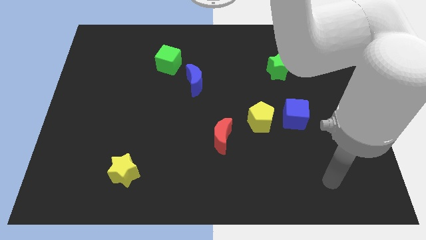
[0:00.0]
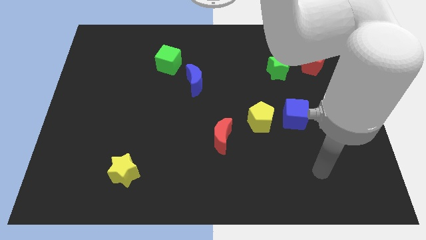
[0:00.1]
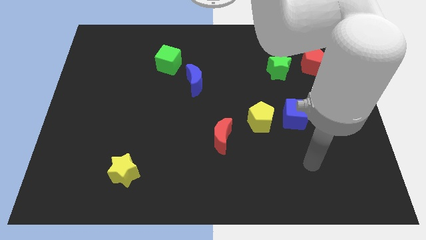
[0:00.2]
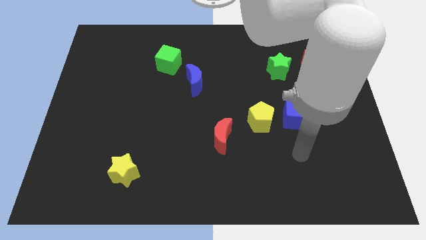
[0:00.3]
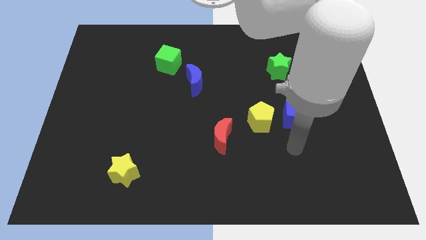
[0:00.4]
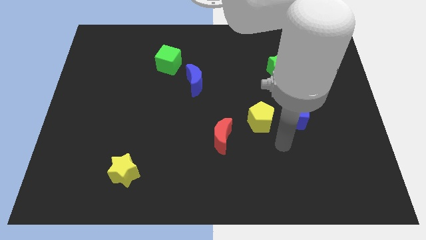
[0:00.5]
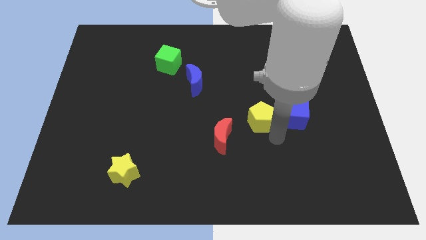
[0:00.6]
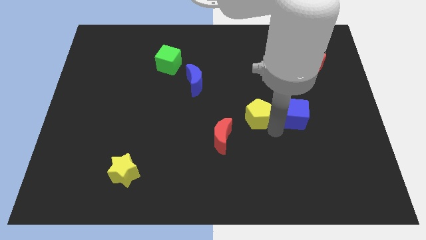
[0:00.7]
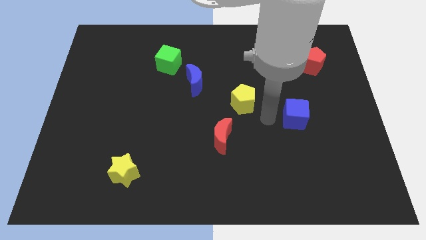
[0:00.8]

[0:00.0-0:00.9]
separate the blue cube from the yellow pentagon

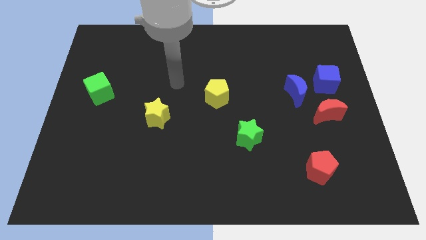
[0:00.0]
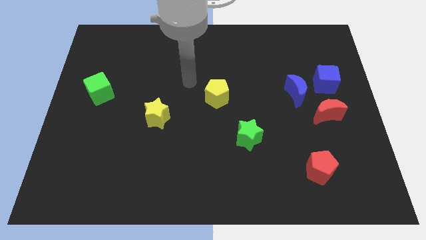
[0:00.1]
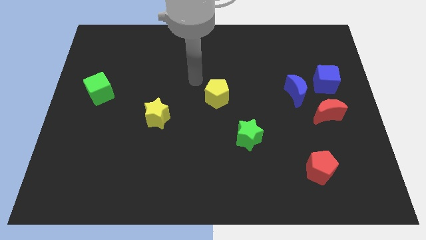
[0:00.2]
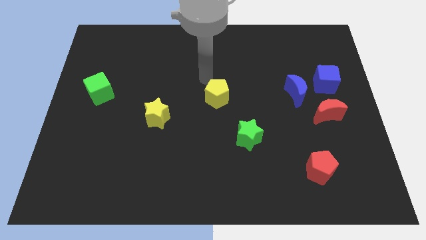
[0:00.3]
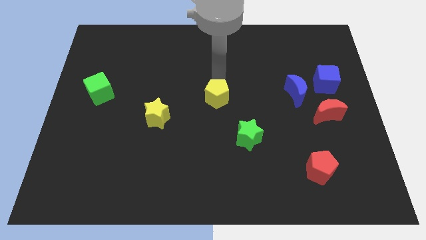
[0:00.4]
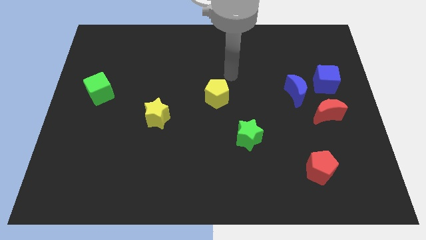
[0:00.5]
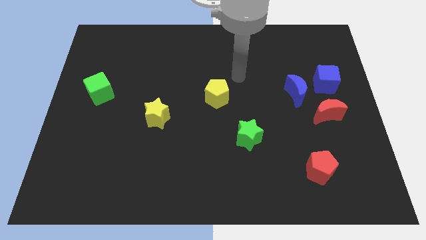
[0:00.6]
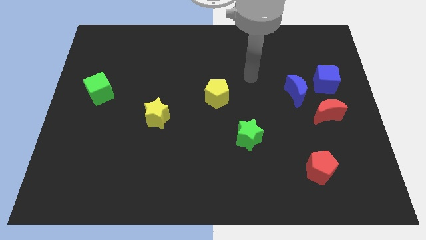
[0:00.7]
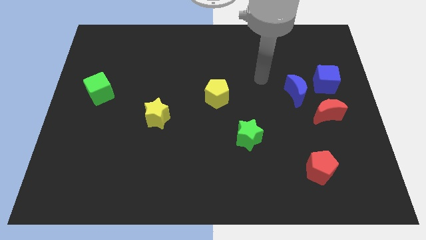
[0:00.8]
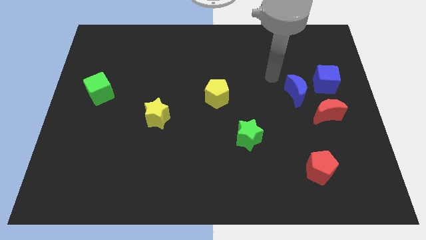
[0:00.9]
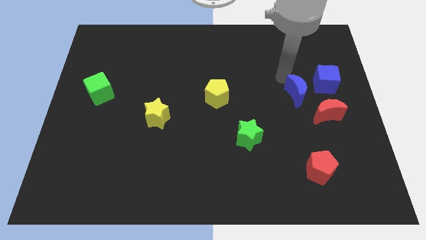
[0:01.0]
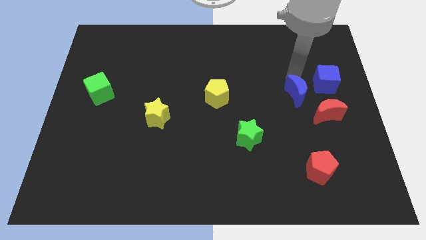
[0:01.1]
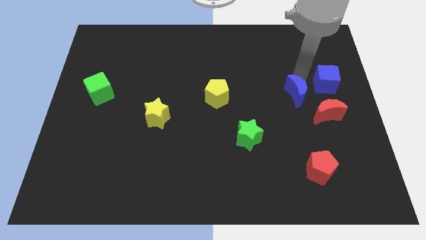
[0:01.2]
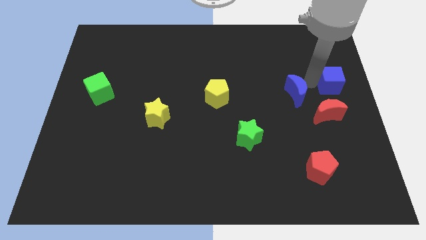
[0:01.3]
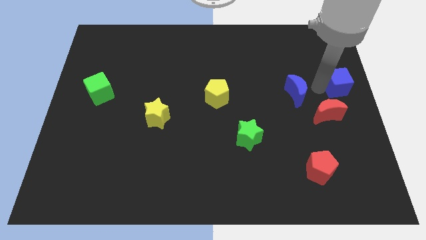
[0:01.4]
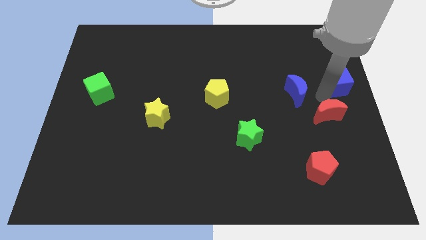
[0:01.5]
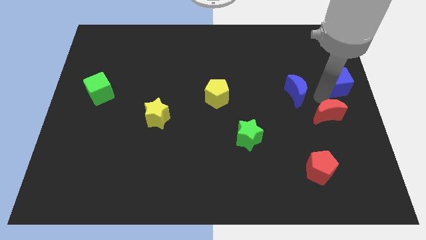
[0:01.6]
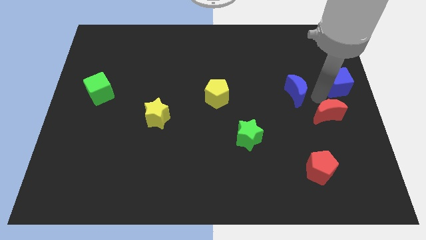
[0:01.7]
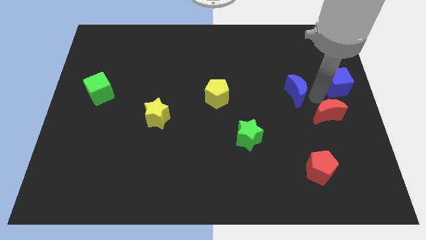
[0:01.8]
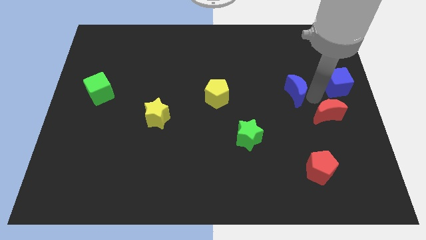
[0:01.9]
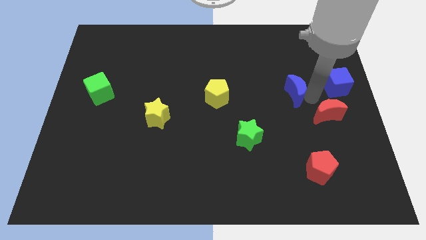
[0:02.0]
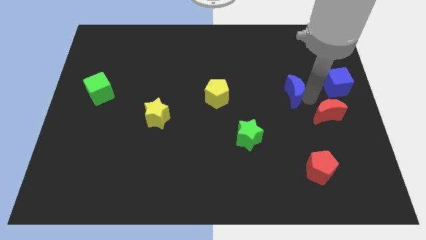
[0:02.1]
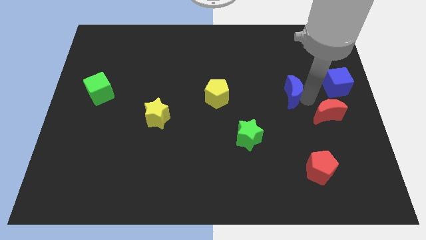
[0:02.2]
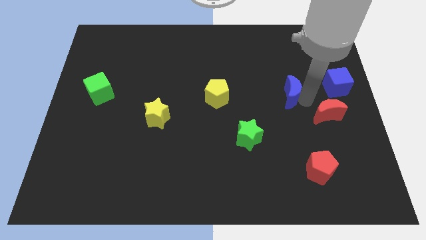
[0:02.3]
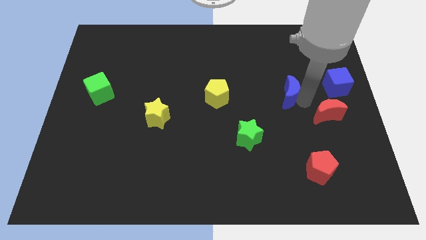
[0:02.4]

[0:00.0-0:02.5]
move the blue moon away from the blue cube and red moon

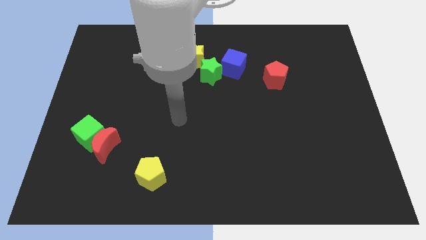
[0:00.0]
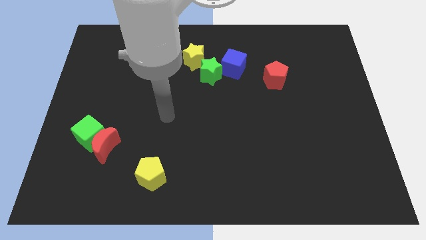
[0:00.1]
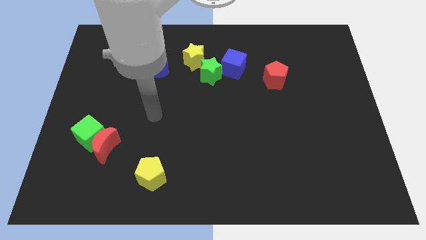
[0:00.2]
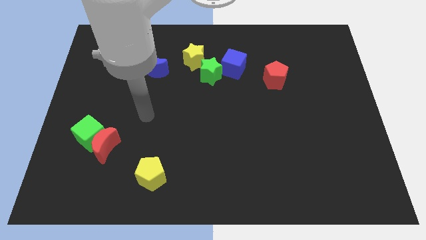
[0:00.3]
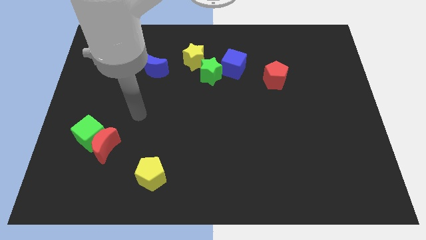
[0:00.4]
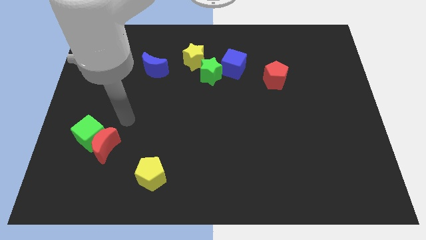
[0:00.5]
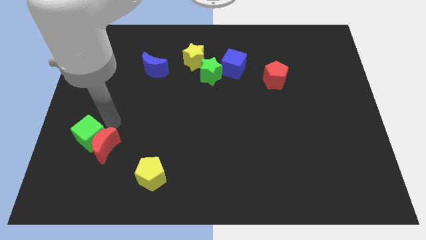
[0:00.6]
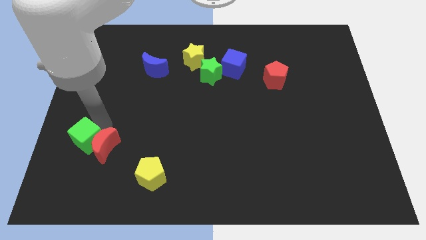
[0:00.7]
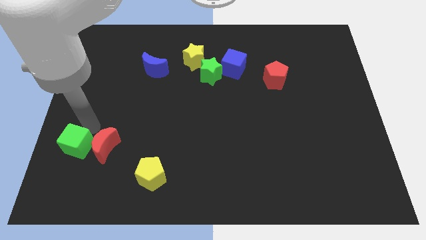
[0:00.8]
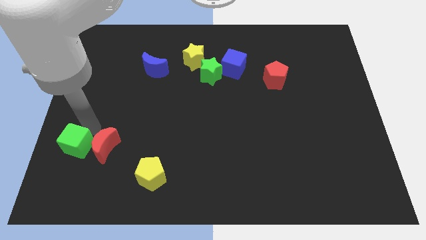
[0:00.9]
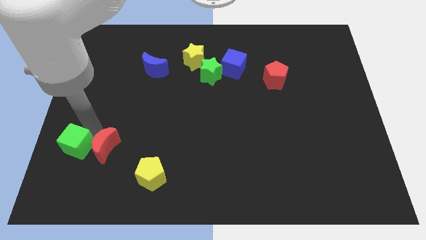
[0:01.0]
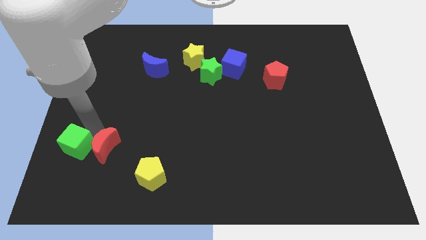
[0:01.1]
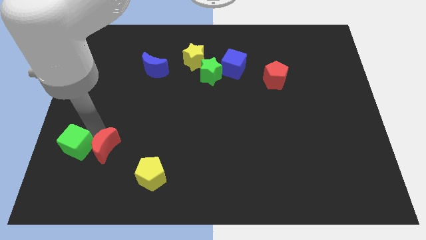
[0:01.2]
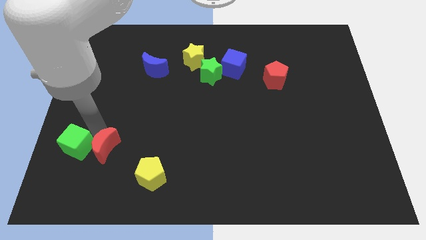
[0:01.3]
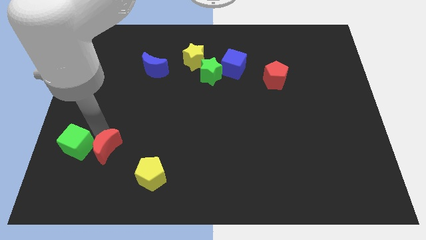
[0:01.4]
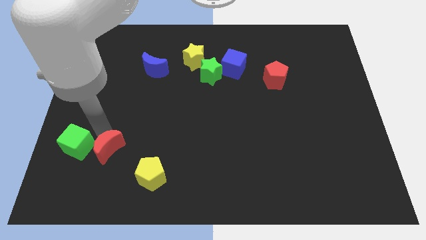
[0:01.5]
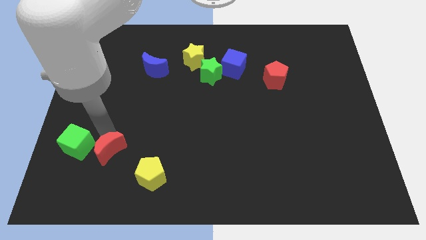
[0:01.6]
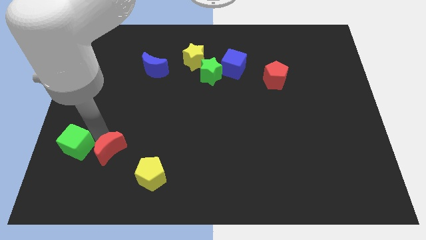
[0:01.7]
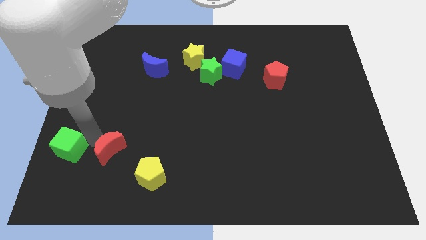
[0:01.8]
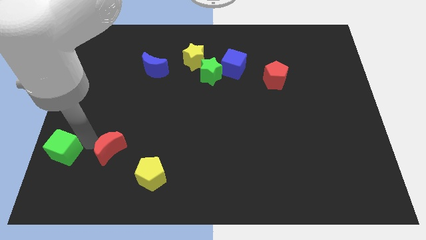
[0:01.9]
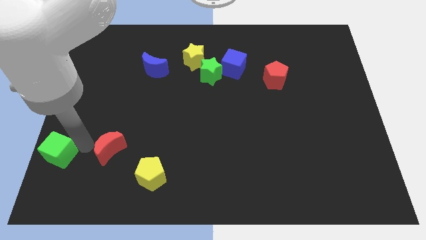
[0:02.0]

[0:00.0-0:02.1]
move the red moon away from the green cube

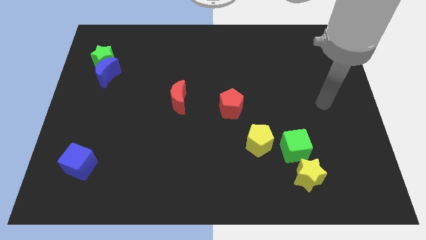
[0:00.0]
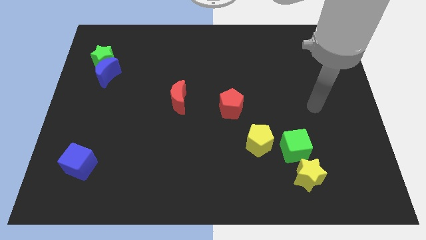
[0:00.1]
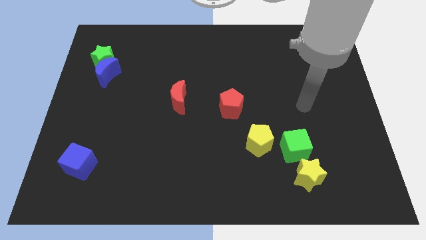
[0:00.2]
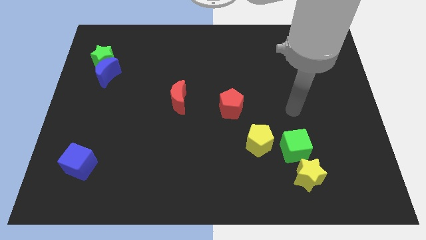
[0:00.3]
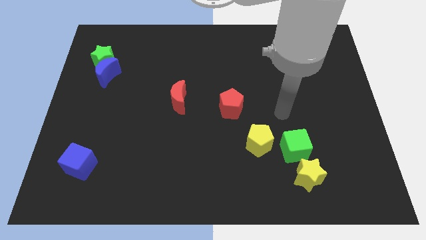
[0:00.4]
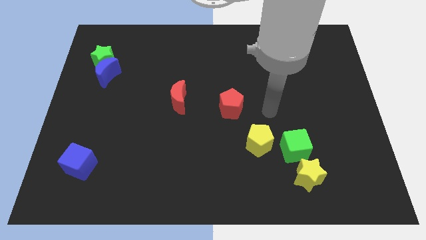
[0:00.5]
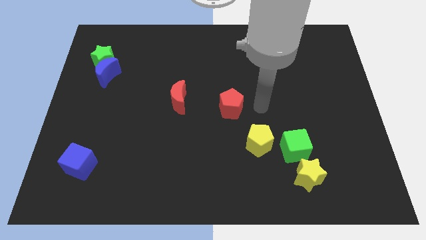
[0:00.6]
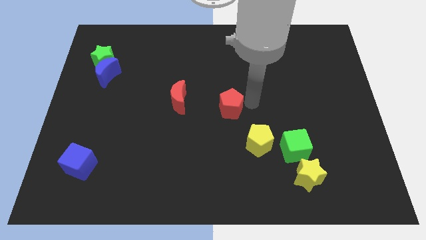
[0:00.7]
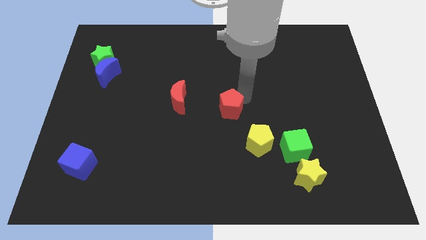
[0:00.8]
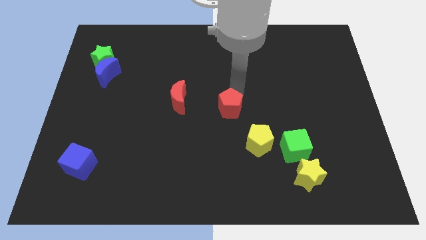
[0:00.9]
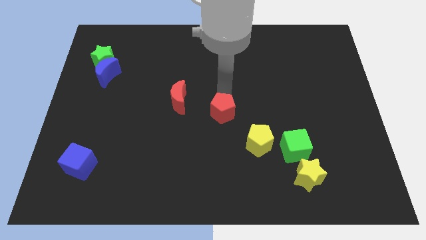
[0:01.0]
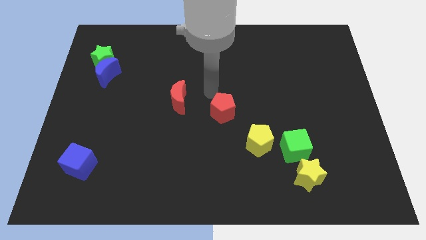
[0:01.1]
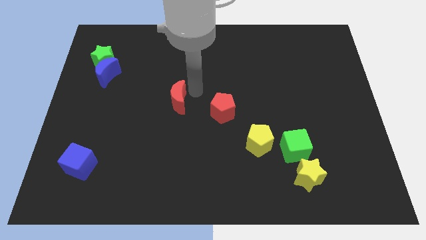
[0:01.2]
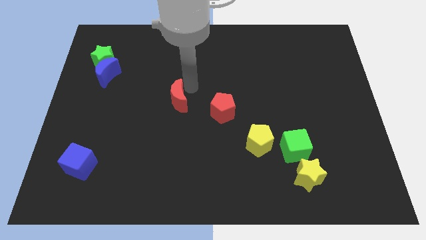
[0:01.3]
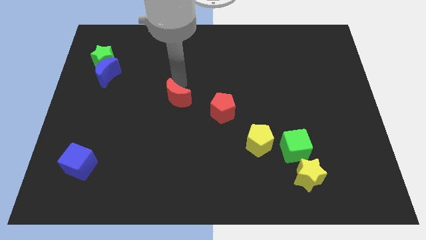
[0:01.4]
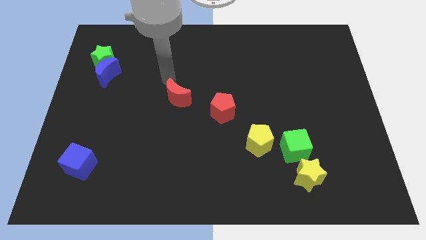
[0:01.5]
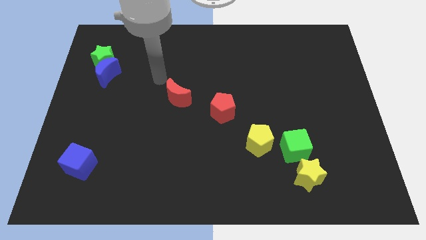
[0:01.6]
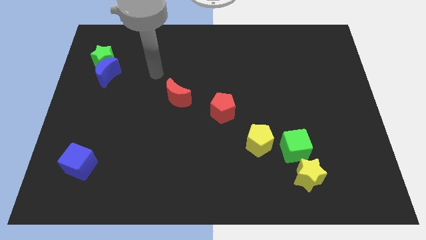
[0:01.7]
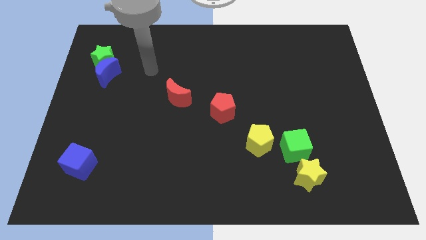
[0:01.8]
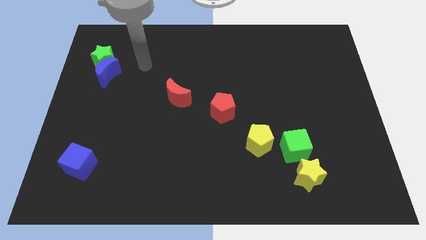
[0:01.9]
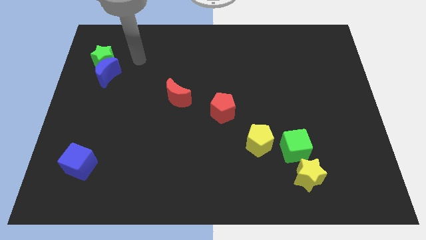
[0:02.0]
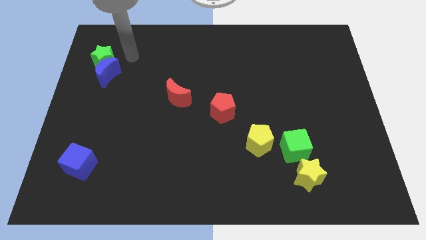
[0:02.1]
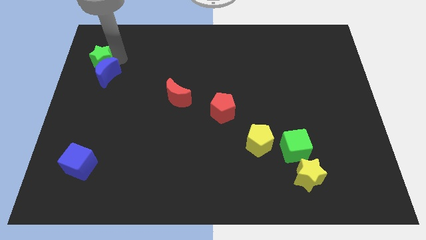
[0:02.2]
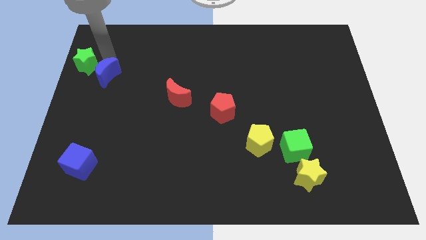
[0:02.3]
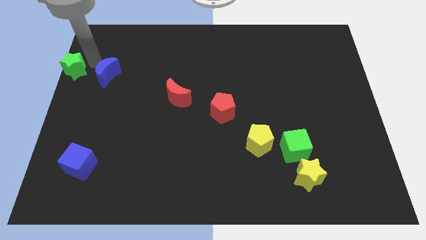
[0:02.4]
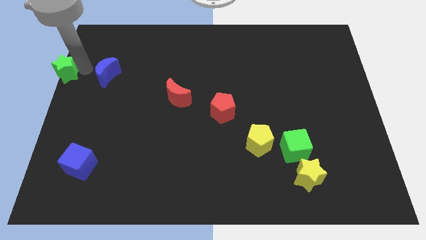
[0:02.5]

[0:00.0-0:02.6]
separate the blue moon from the green star

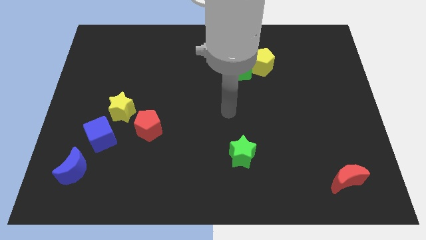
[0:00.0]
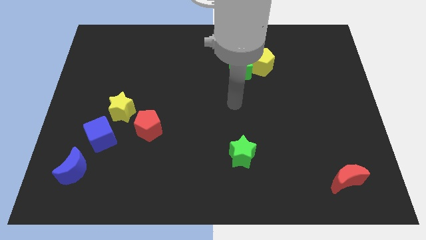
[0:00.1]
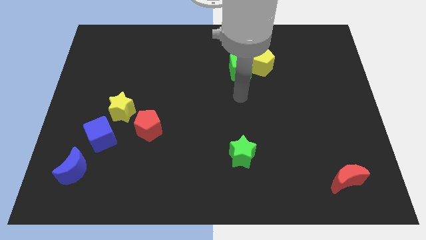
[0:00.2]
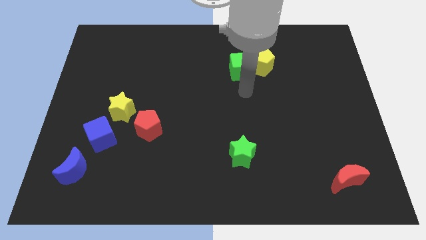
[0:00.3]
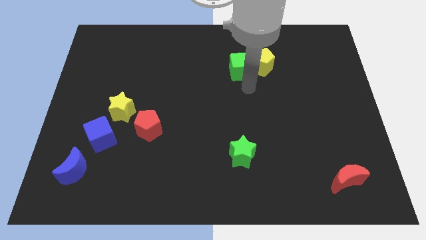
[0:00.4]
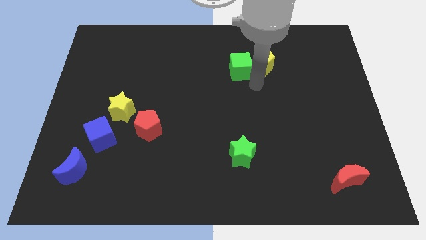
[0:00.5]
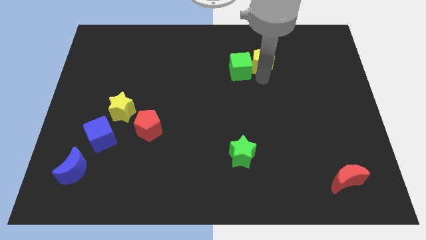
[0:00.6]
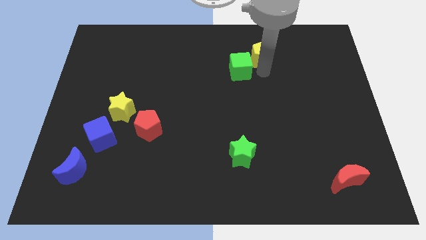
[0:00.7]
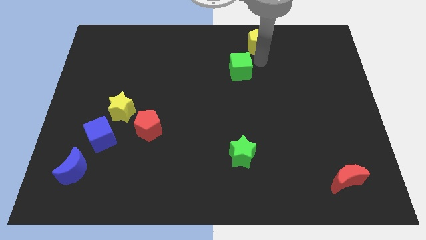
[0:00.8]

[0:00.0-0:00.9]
pull the green cube apart from the yellow pentagon
